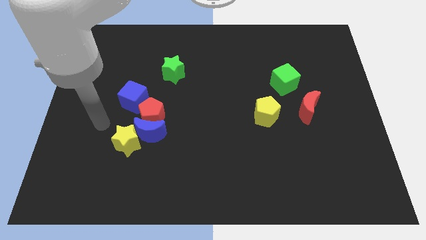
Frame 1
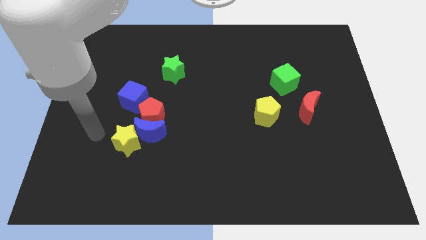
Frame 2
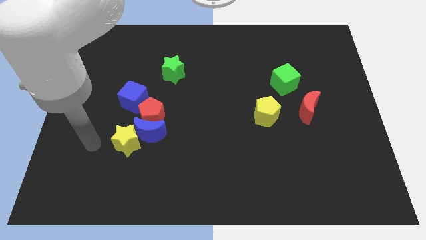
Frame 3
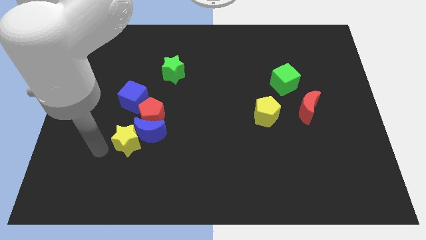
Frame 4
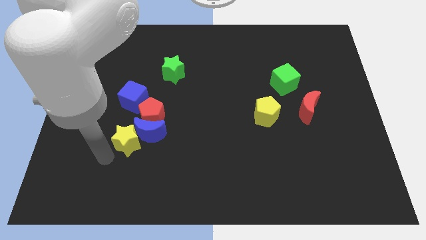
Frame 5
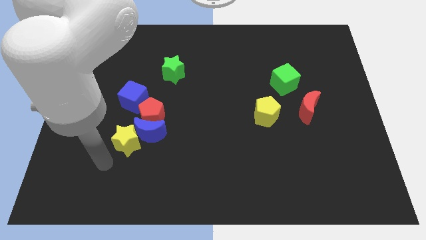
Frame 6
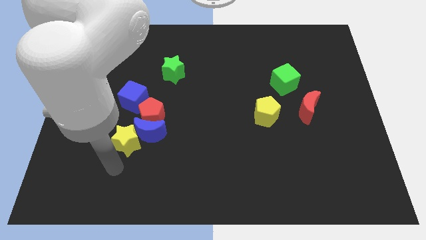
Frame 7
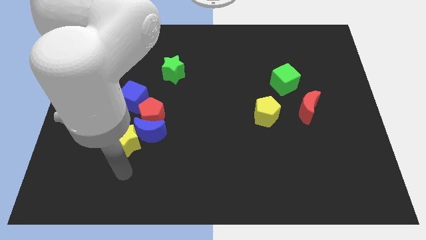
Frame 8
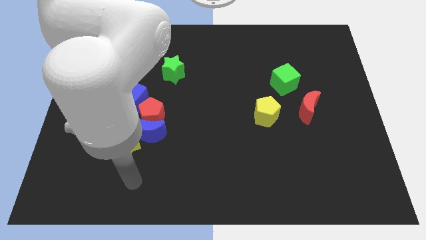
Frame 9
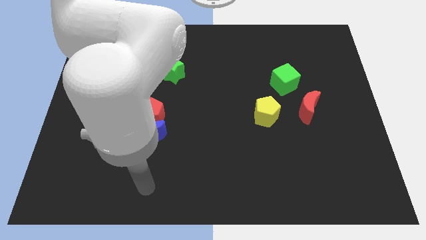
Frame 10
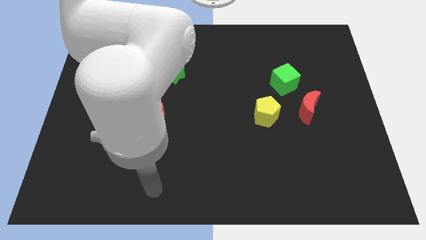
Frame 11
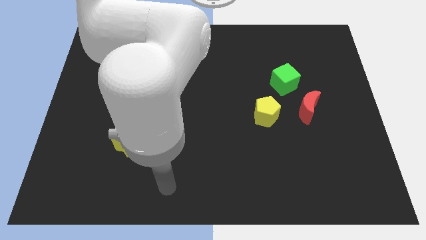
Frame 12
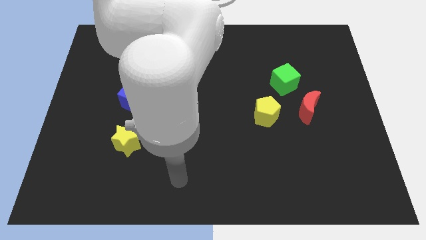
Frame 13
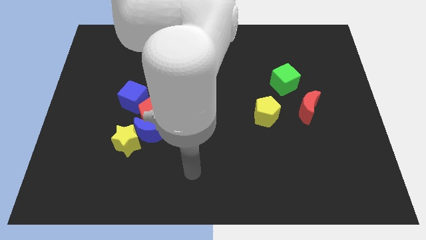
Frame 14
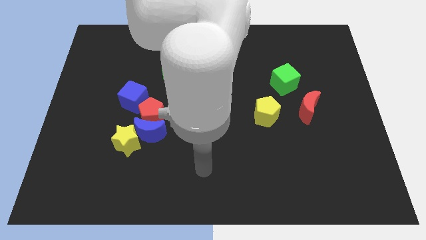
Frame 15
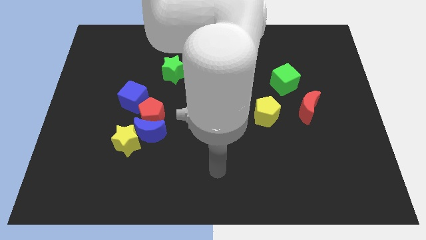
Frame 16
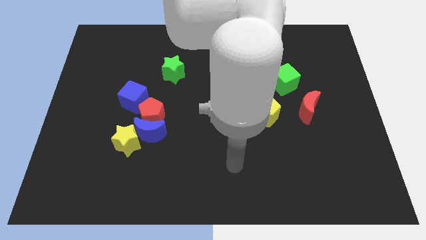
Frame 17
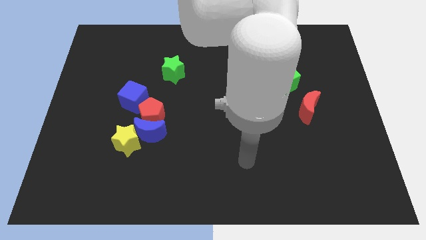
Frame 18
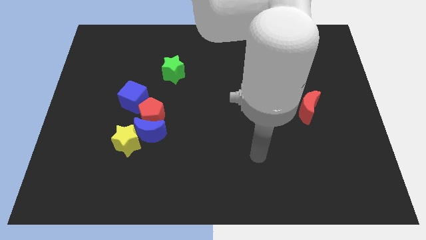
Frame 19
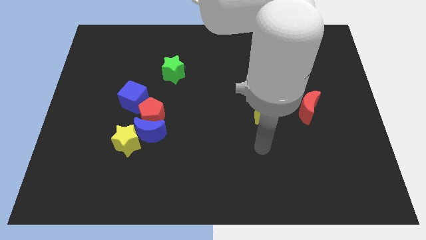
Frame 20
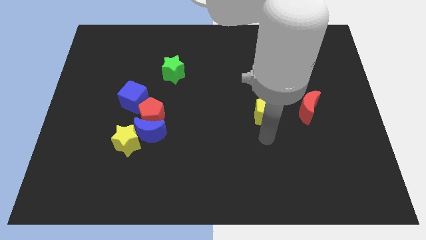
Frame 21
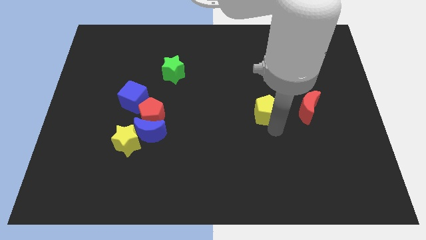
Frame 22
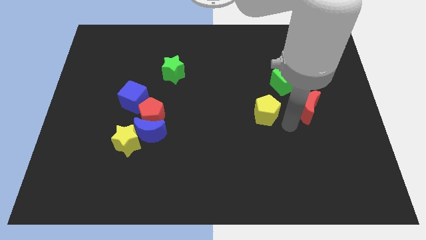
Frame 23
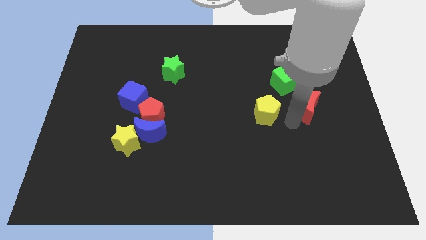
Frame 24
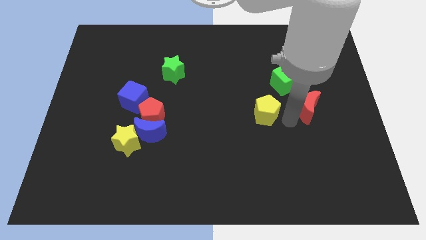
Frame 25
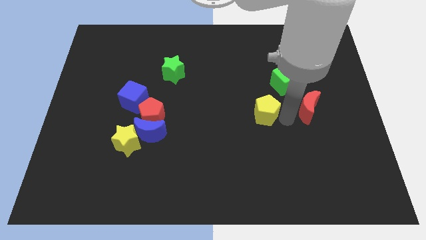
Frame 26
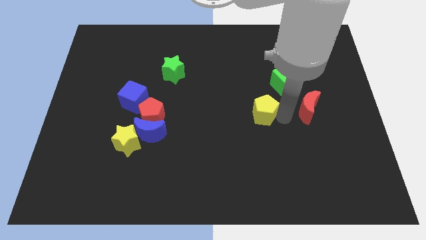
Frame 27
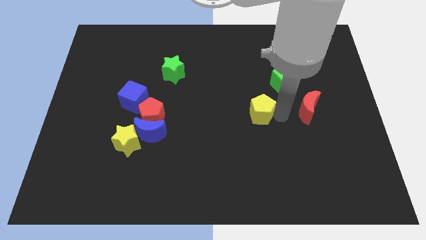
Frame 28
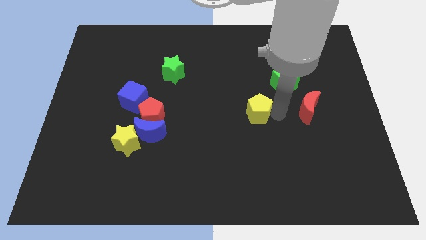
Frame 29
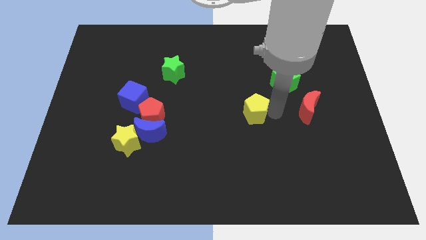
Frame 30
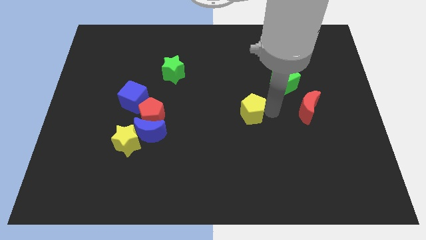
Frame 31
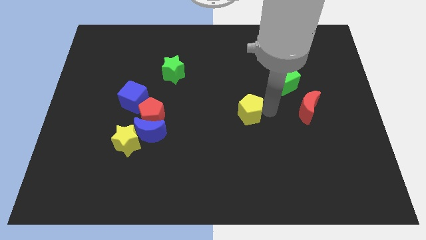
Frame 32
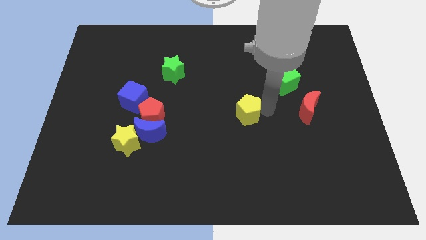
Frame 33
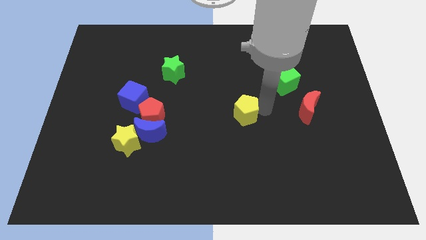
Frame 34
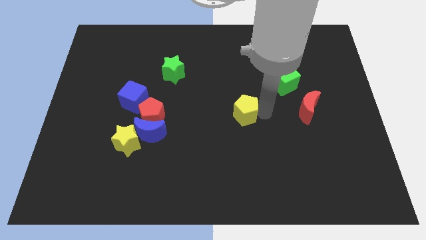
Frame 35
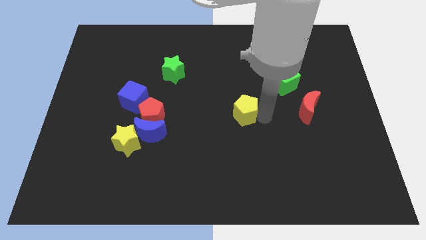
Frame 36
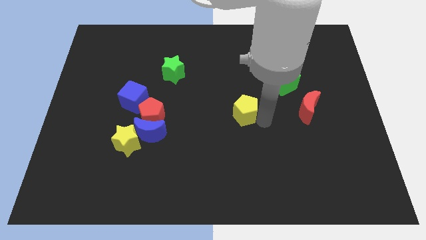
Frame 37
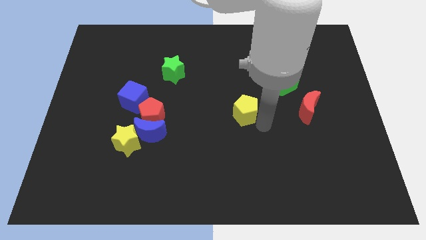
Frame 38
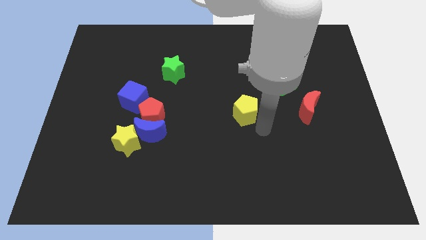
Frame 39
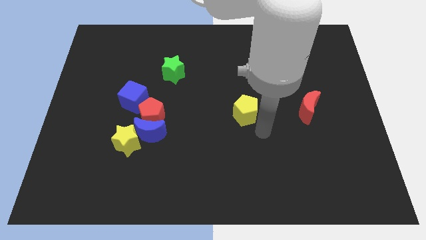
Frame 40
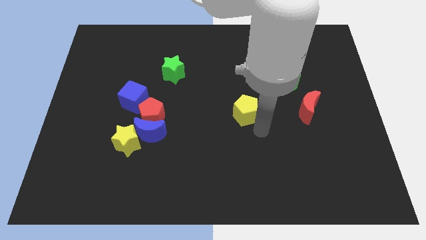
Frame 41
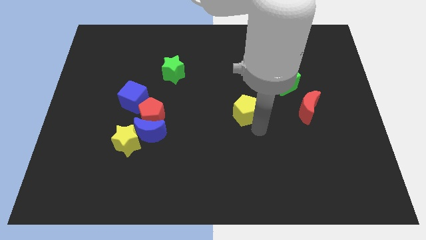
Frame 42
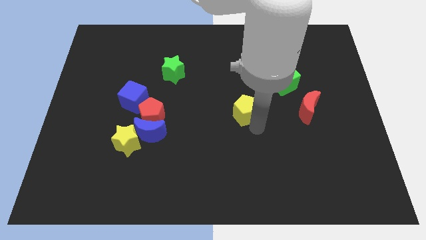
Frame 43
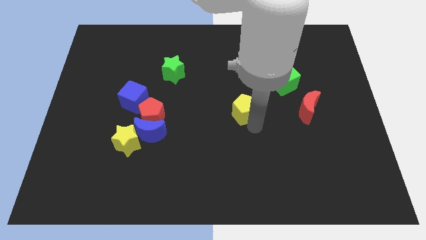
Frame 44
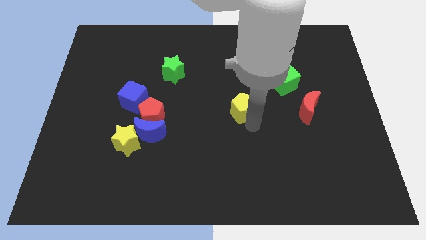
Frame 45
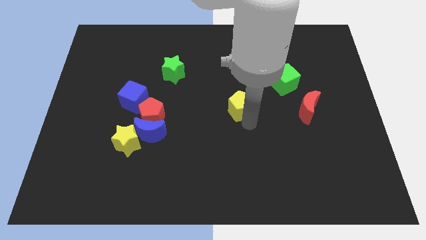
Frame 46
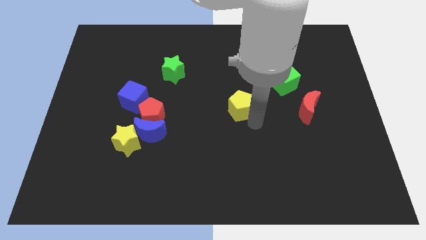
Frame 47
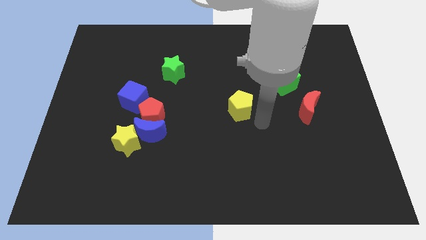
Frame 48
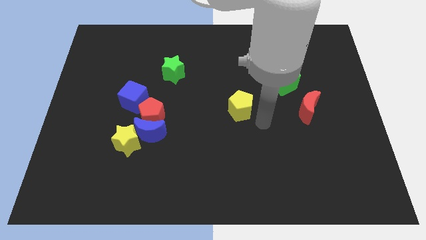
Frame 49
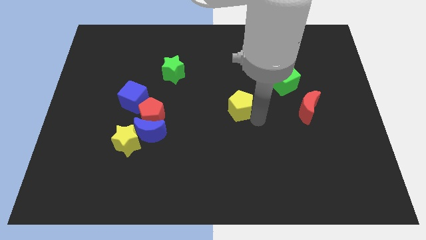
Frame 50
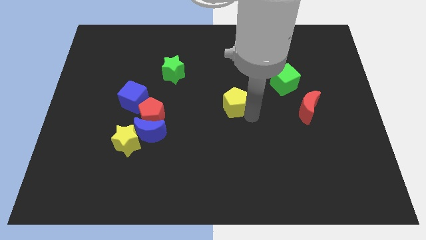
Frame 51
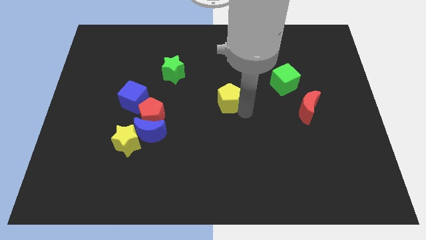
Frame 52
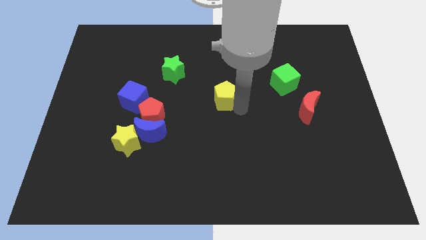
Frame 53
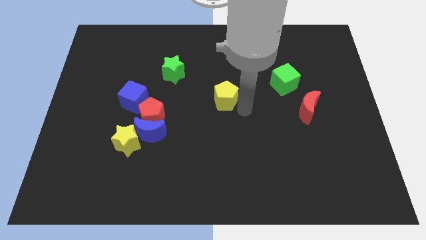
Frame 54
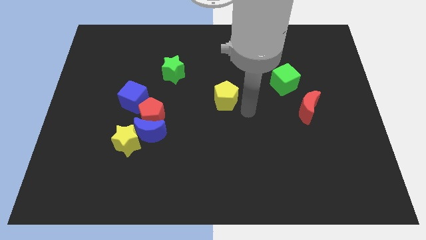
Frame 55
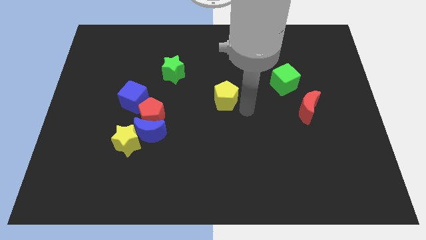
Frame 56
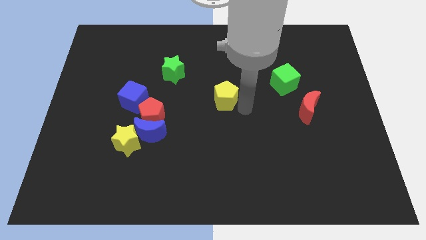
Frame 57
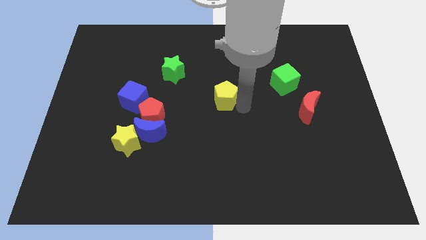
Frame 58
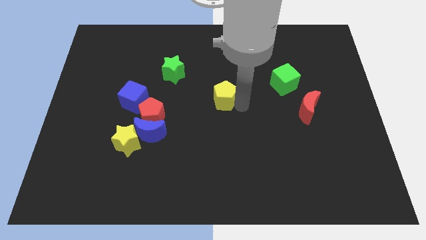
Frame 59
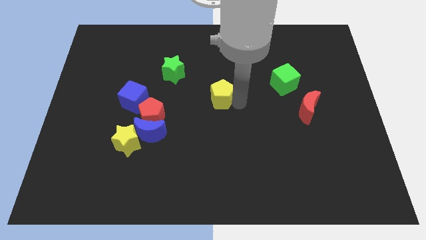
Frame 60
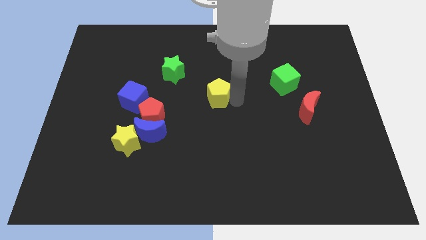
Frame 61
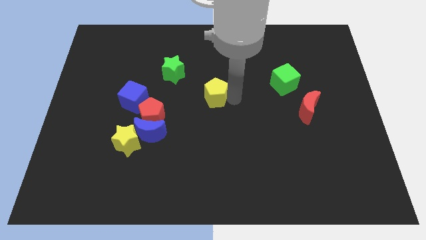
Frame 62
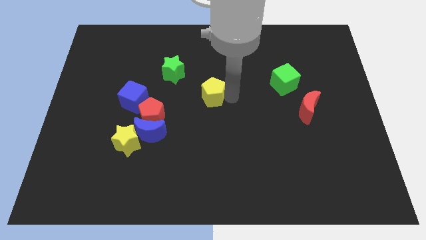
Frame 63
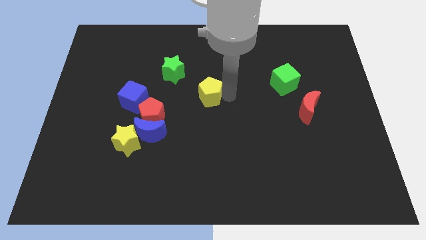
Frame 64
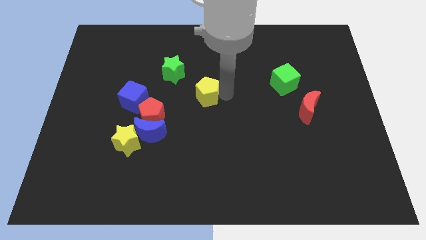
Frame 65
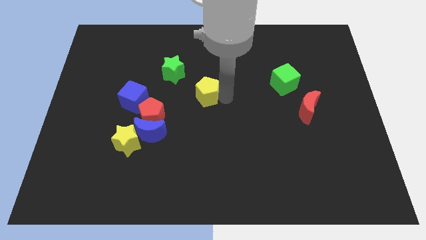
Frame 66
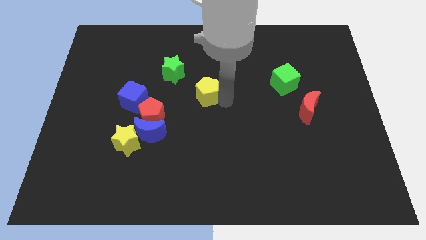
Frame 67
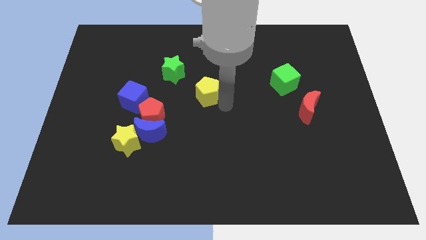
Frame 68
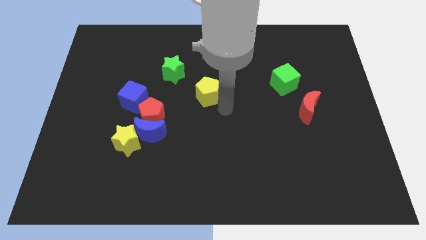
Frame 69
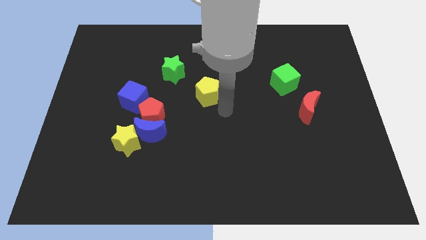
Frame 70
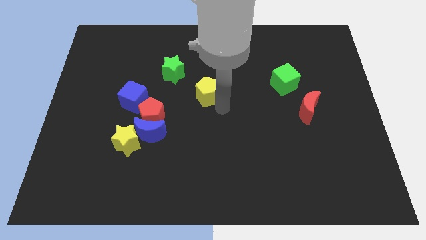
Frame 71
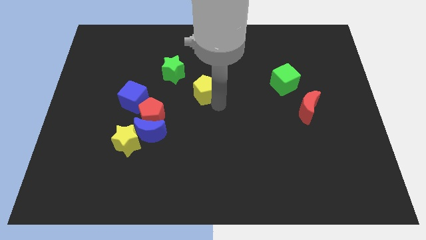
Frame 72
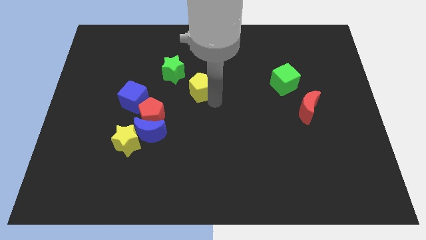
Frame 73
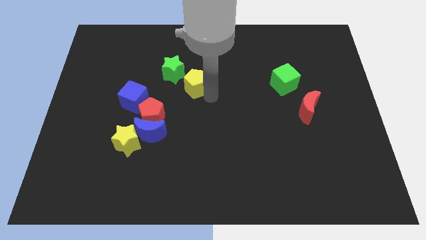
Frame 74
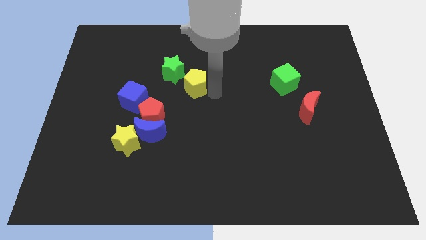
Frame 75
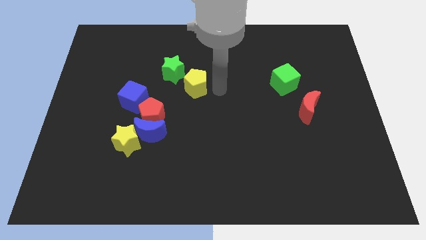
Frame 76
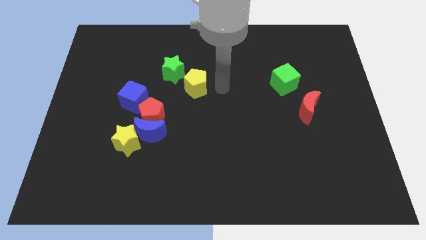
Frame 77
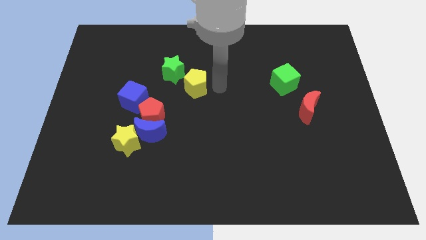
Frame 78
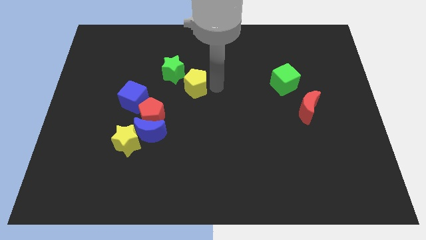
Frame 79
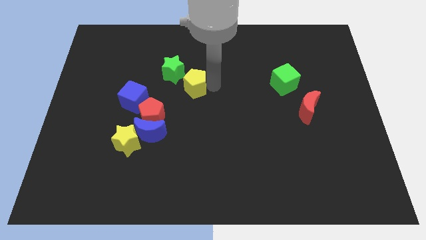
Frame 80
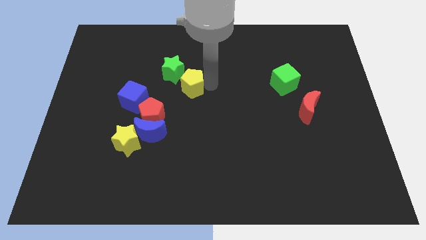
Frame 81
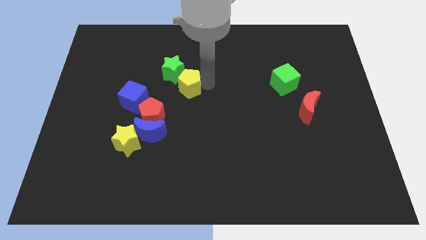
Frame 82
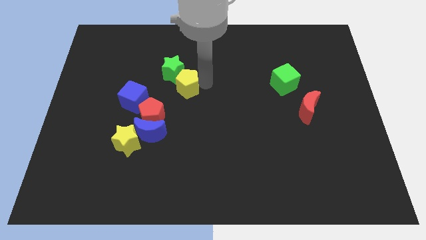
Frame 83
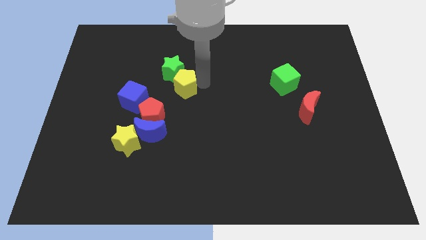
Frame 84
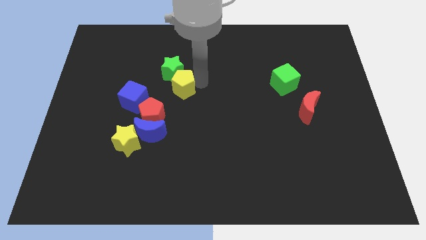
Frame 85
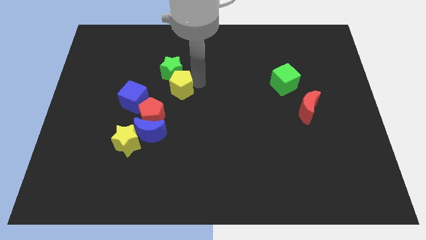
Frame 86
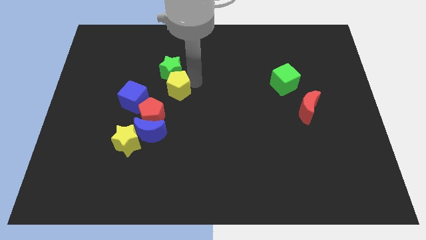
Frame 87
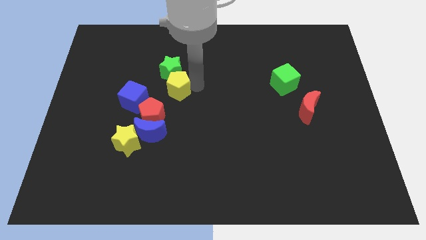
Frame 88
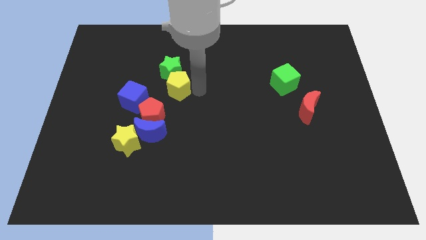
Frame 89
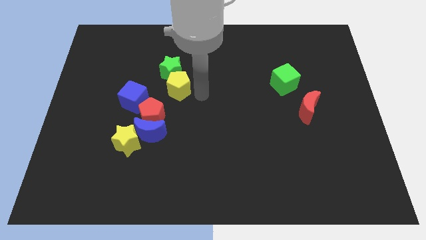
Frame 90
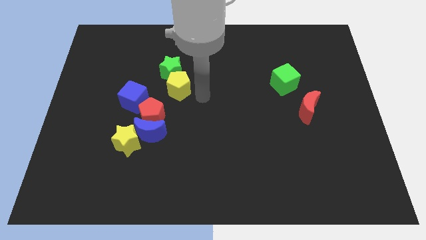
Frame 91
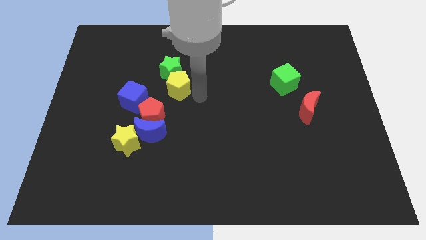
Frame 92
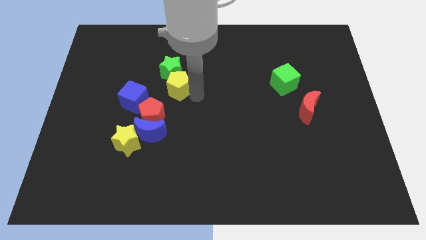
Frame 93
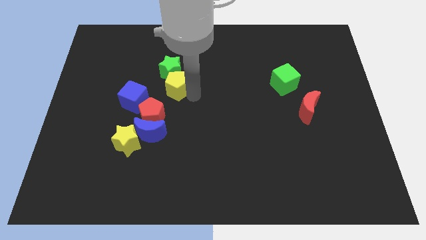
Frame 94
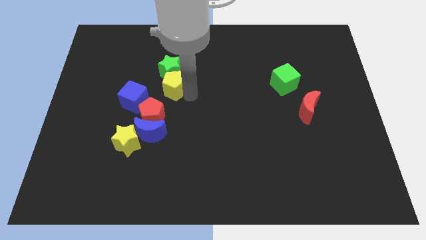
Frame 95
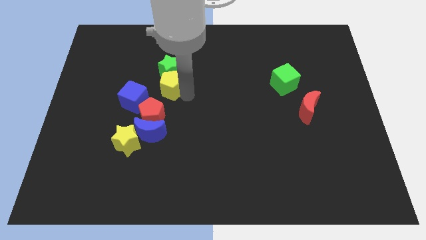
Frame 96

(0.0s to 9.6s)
push the yellow pentagon left
